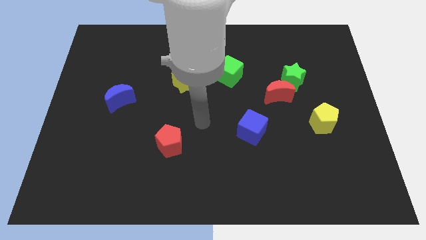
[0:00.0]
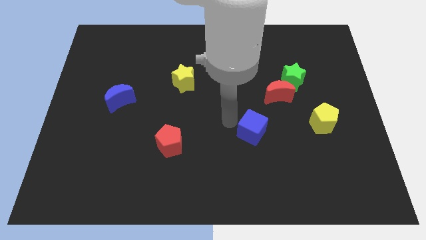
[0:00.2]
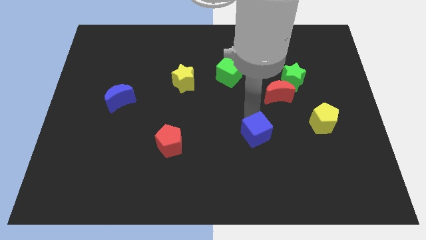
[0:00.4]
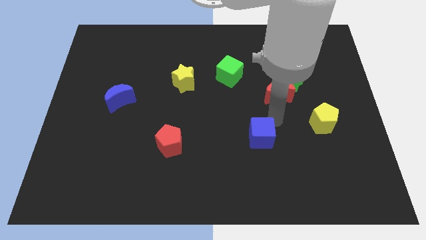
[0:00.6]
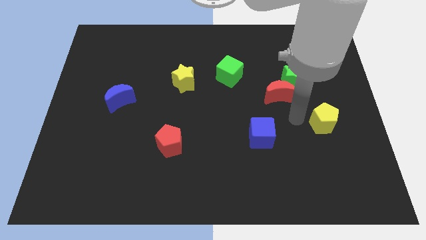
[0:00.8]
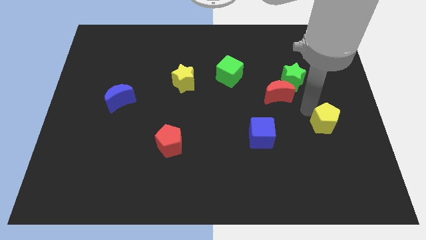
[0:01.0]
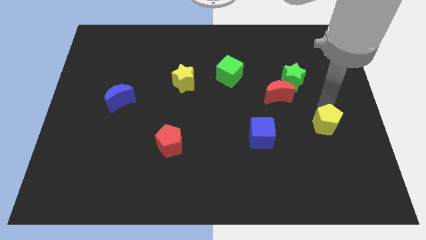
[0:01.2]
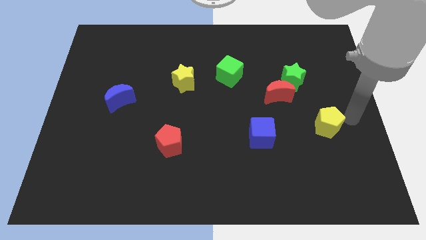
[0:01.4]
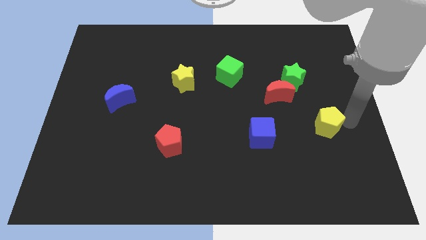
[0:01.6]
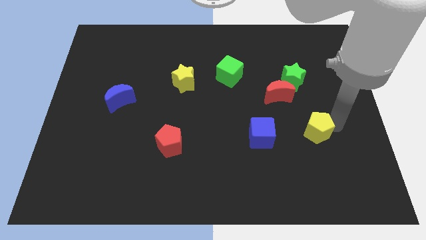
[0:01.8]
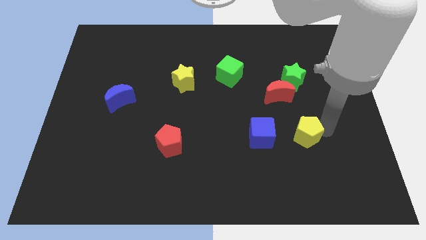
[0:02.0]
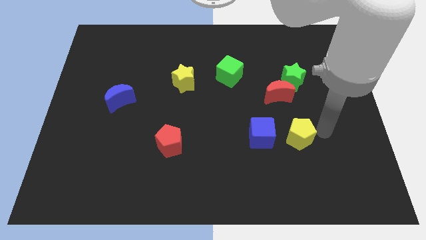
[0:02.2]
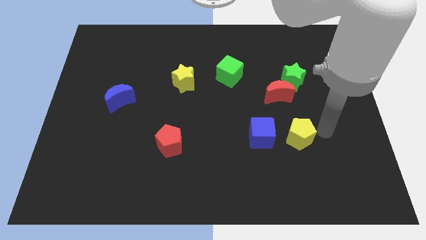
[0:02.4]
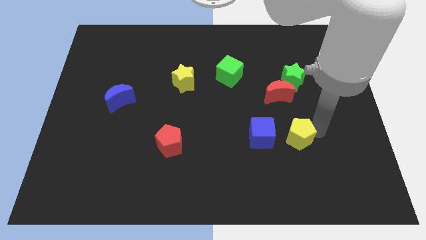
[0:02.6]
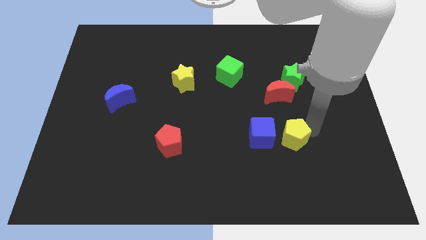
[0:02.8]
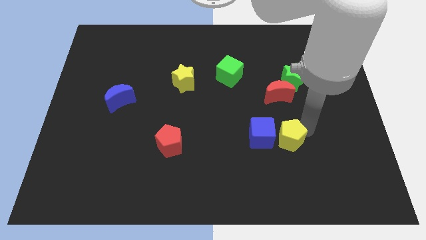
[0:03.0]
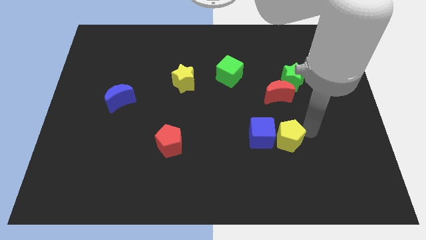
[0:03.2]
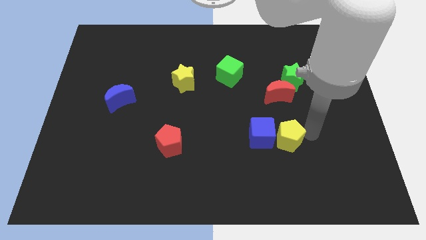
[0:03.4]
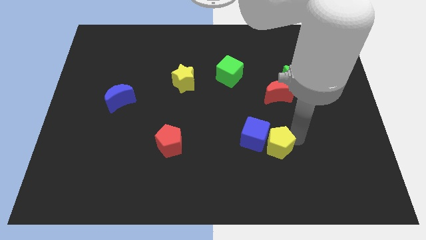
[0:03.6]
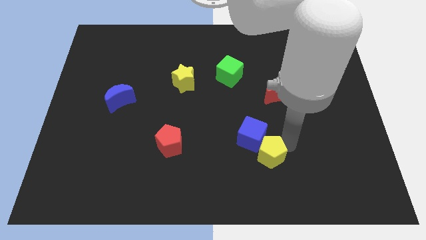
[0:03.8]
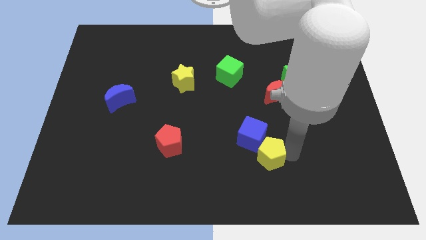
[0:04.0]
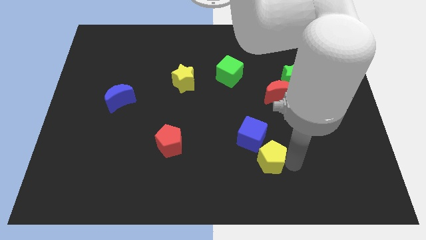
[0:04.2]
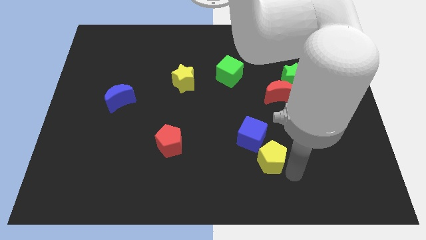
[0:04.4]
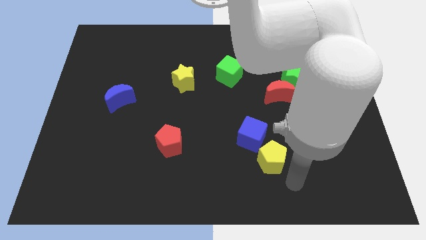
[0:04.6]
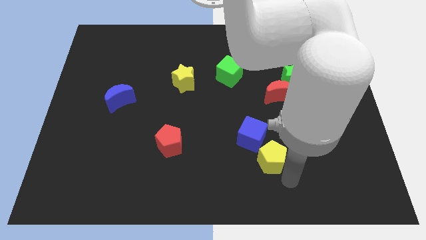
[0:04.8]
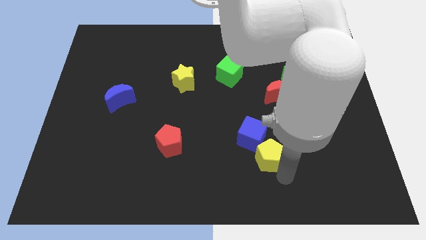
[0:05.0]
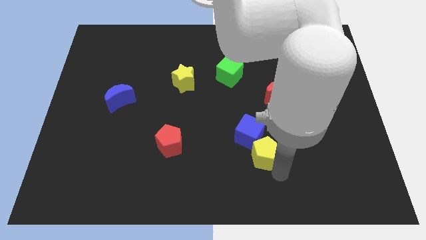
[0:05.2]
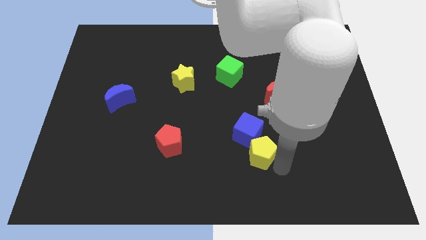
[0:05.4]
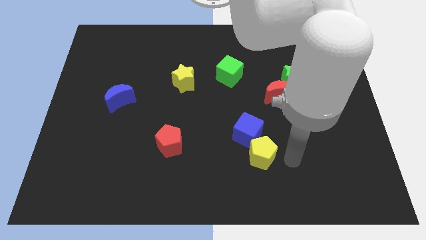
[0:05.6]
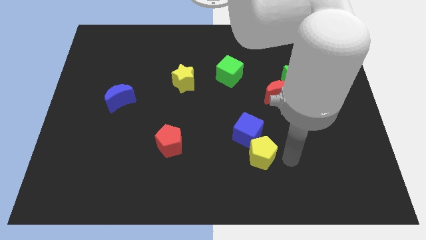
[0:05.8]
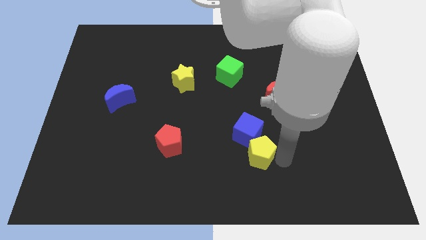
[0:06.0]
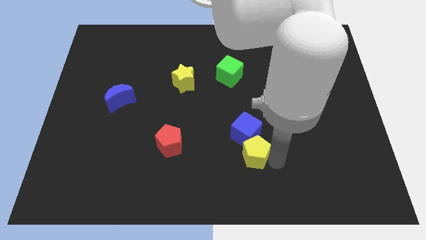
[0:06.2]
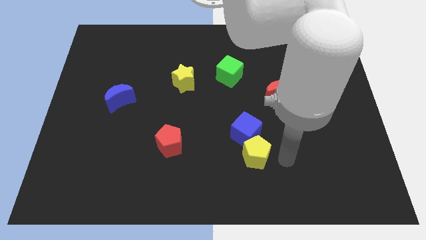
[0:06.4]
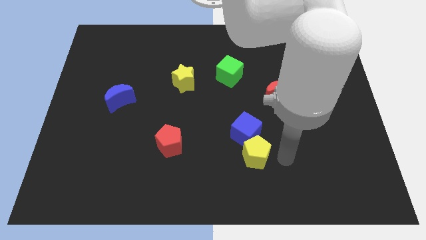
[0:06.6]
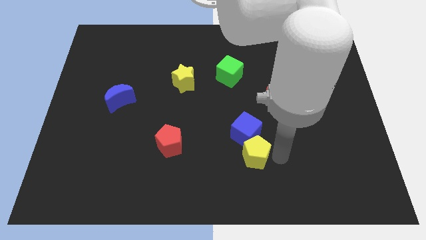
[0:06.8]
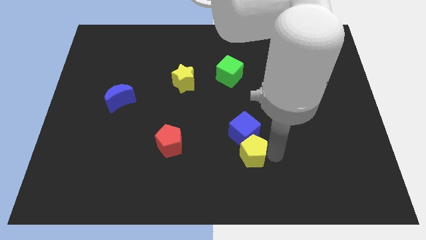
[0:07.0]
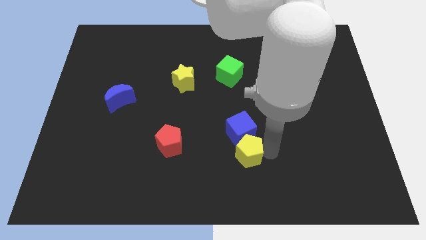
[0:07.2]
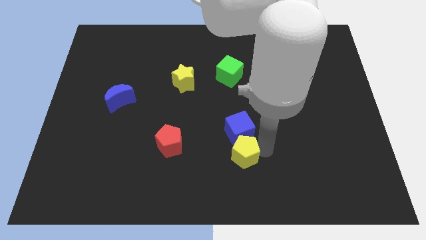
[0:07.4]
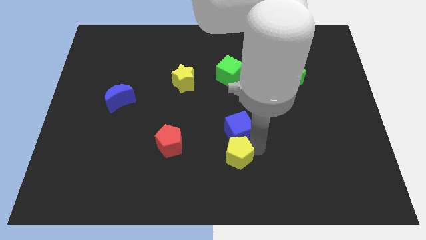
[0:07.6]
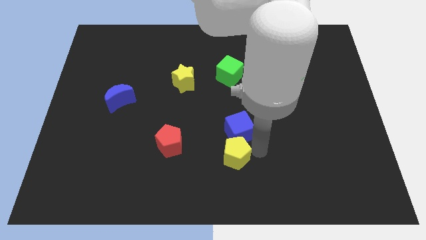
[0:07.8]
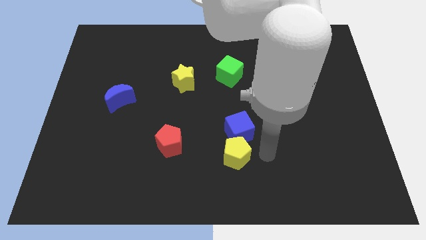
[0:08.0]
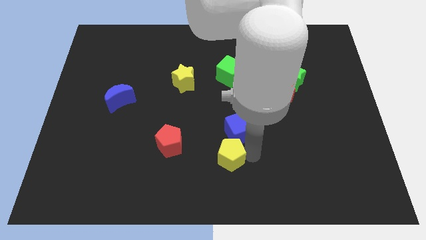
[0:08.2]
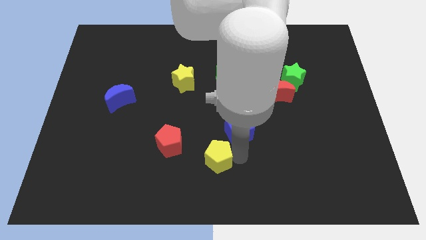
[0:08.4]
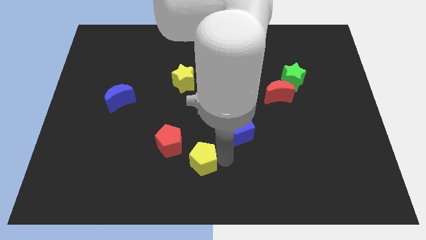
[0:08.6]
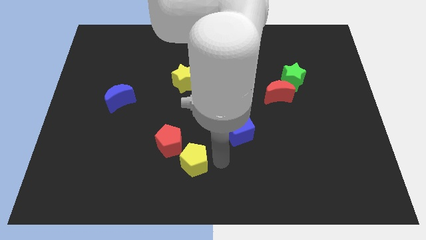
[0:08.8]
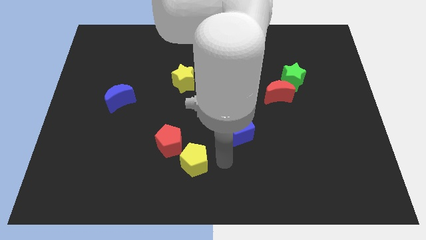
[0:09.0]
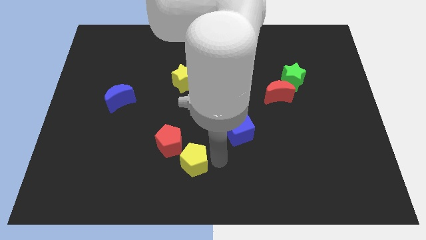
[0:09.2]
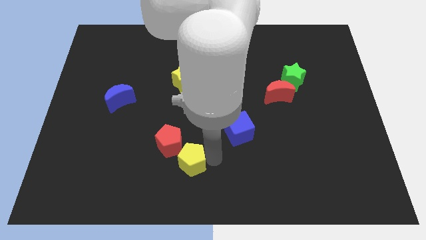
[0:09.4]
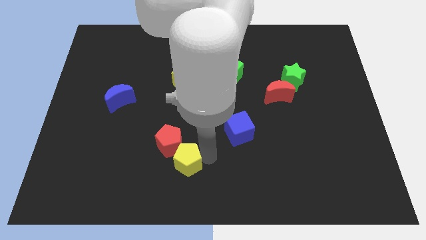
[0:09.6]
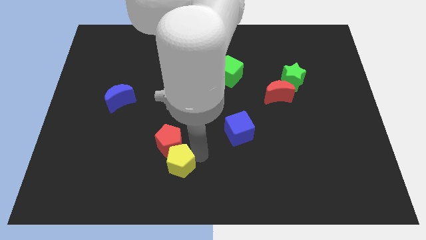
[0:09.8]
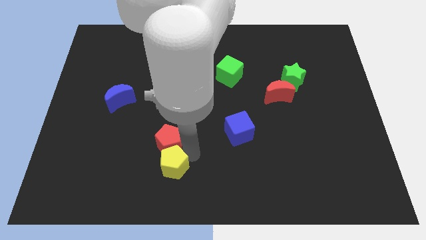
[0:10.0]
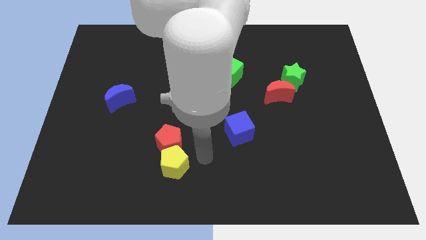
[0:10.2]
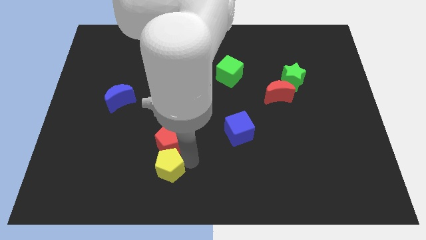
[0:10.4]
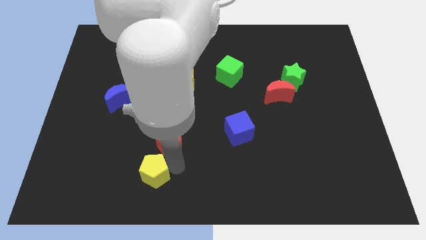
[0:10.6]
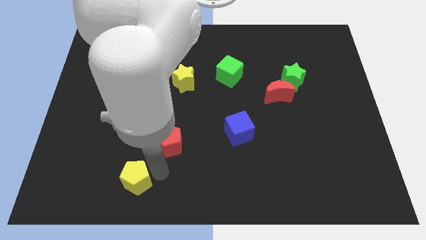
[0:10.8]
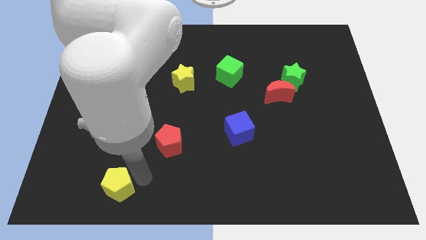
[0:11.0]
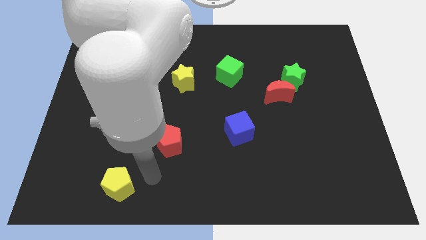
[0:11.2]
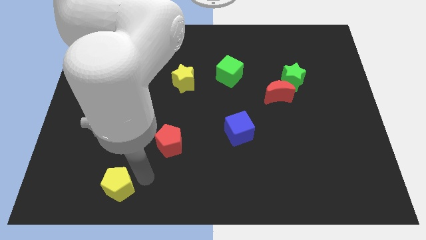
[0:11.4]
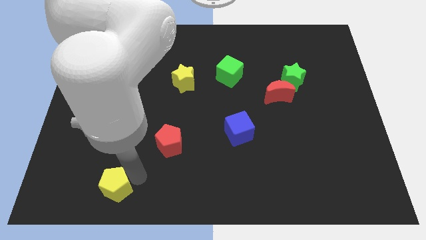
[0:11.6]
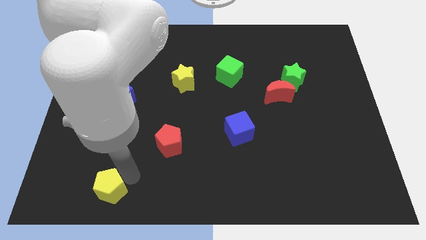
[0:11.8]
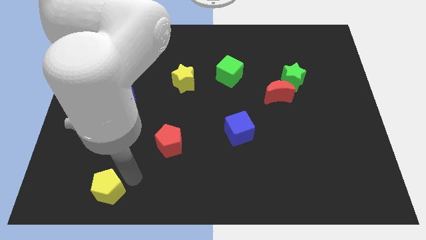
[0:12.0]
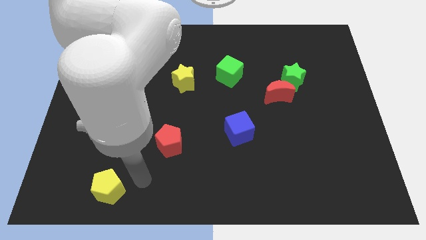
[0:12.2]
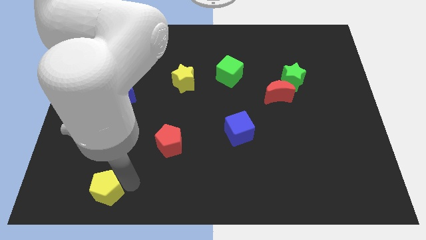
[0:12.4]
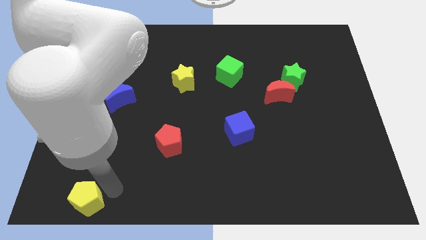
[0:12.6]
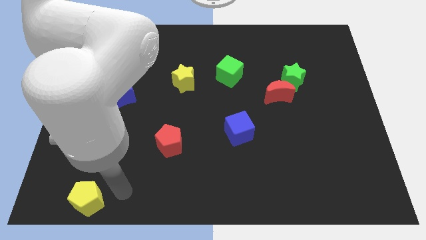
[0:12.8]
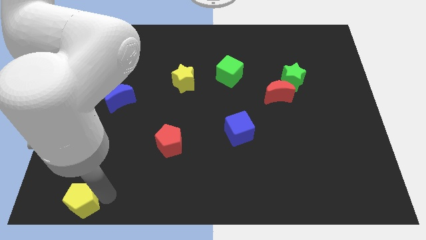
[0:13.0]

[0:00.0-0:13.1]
slide the yellow pentagon to the bottom left corner
